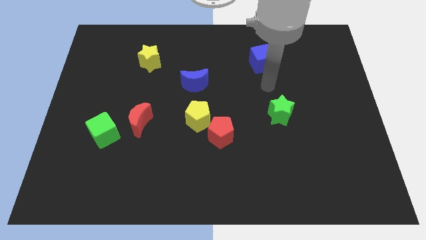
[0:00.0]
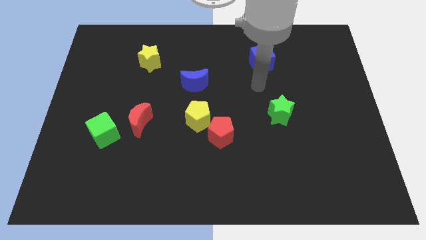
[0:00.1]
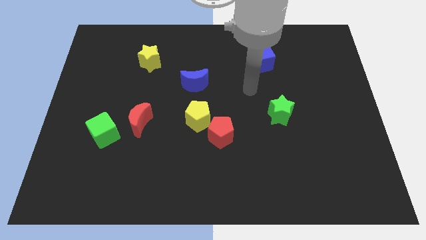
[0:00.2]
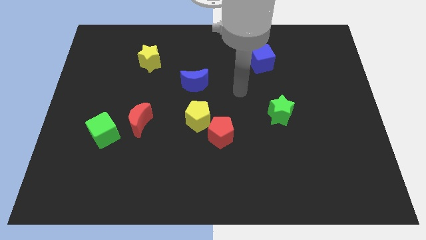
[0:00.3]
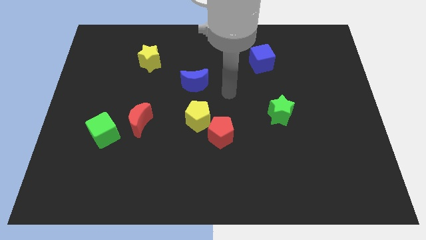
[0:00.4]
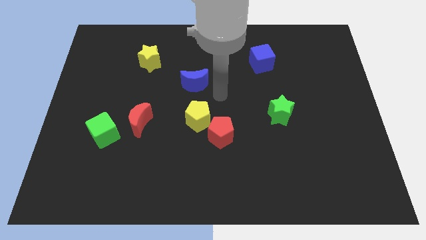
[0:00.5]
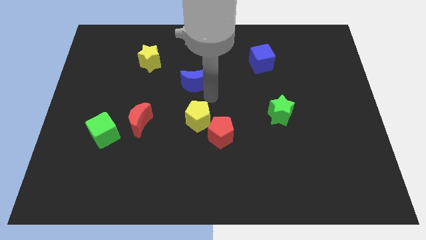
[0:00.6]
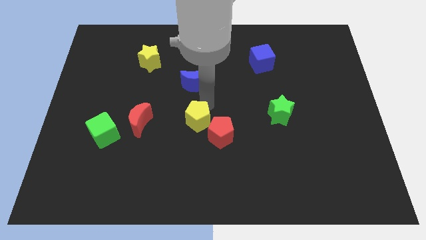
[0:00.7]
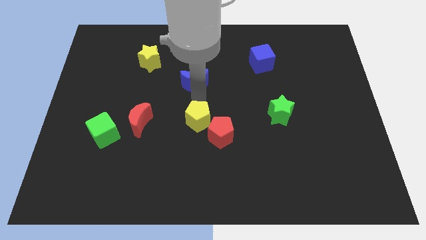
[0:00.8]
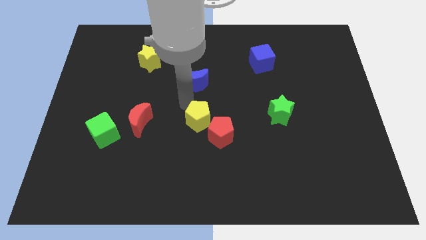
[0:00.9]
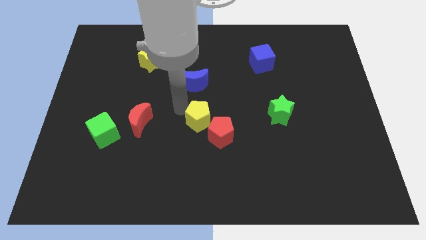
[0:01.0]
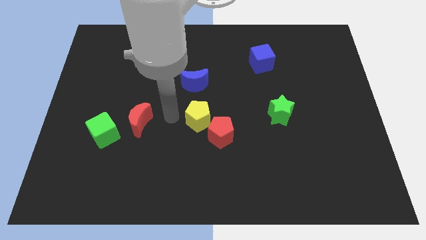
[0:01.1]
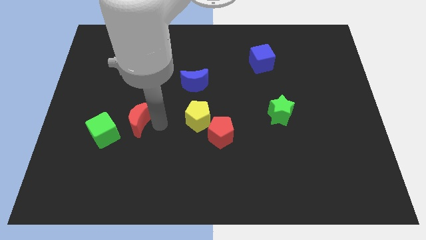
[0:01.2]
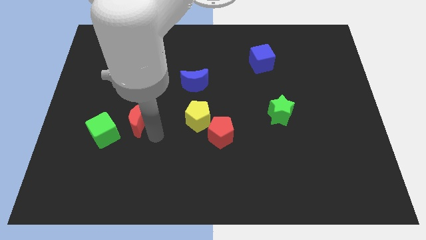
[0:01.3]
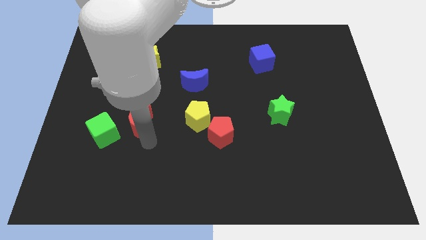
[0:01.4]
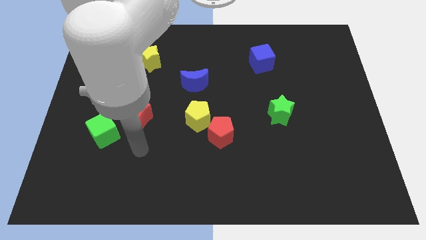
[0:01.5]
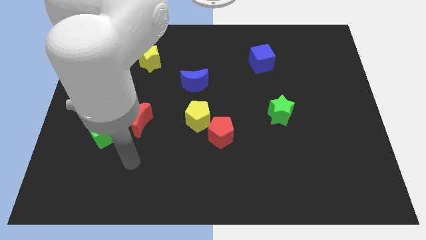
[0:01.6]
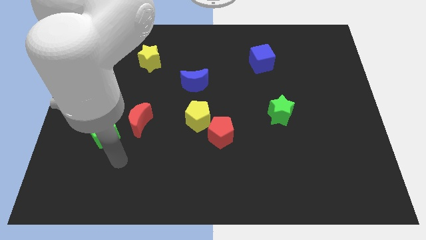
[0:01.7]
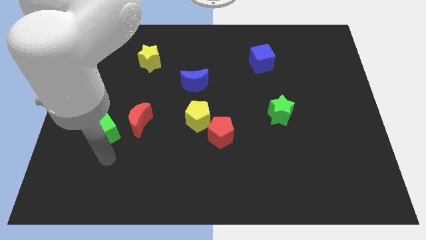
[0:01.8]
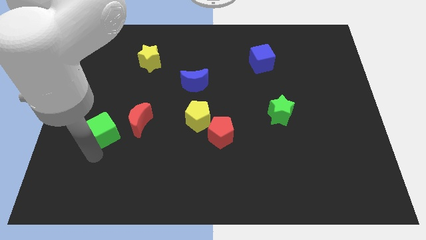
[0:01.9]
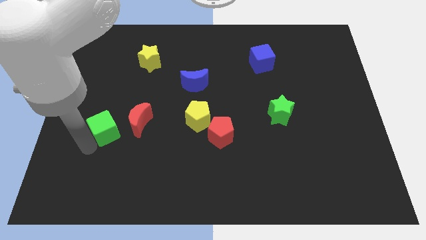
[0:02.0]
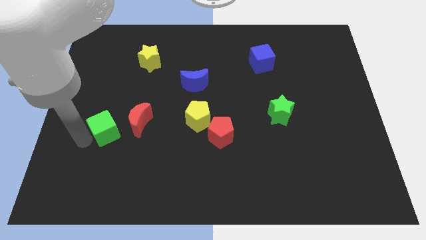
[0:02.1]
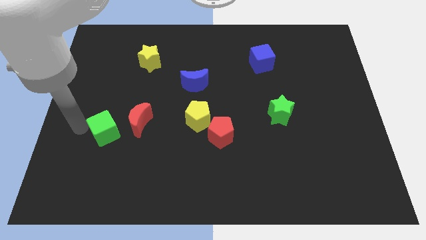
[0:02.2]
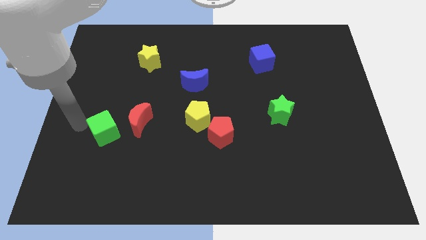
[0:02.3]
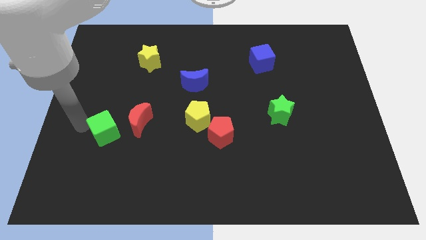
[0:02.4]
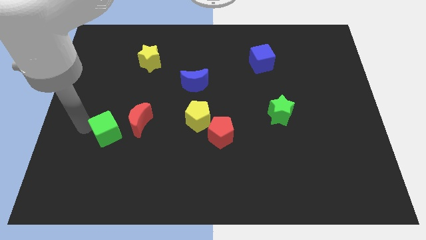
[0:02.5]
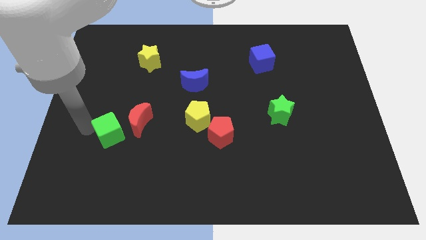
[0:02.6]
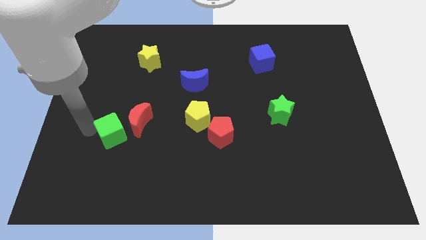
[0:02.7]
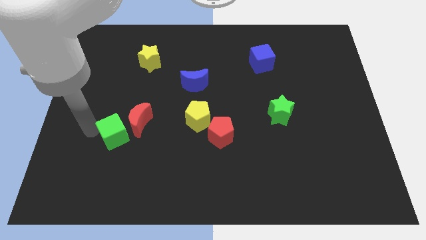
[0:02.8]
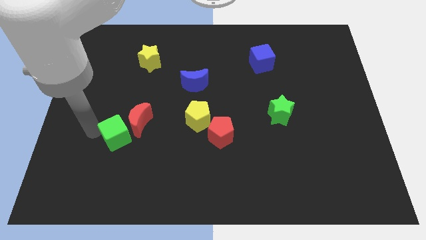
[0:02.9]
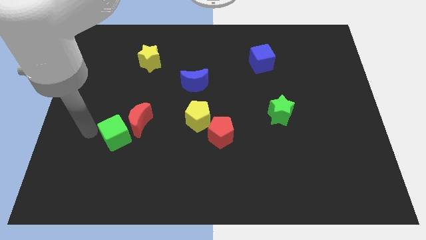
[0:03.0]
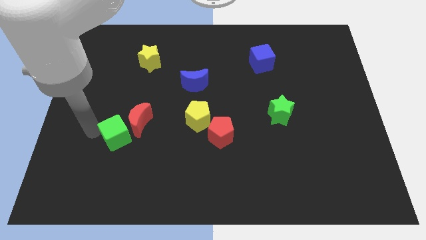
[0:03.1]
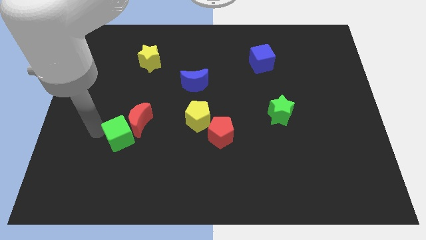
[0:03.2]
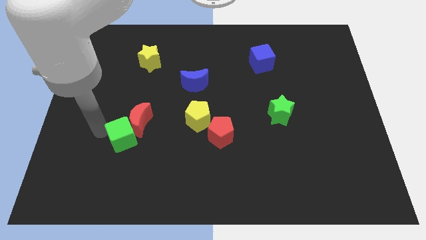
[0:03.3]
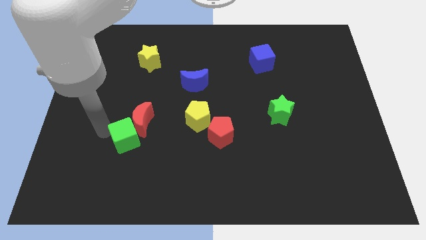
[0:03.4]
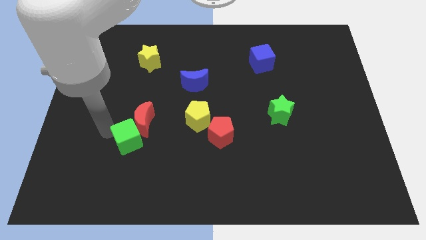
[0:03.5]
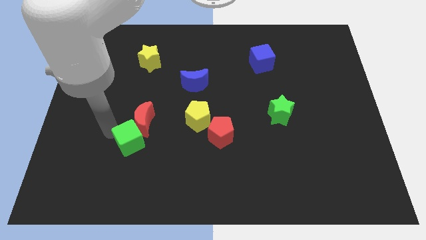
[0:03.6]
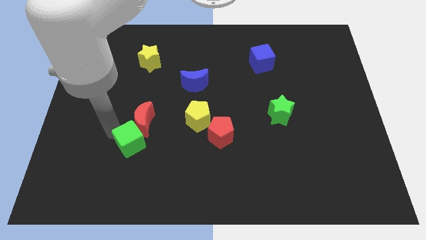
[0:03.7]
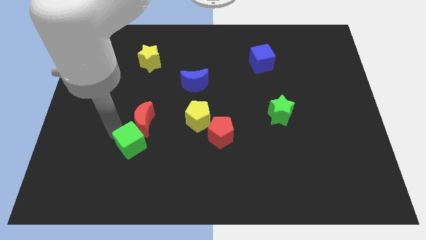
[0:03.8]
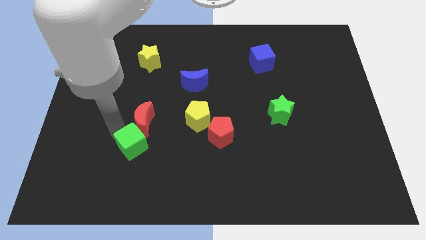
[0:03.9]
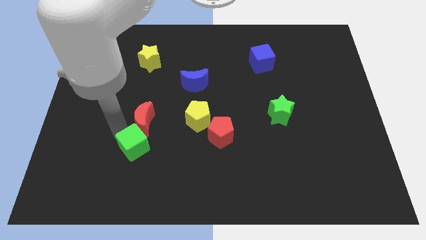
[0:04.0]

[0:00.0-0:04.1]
push the green cube slightly to the right

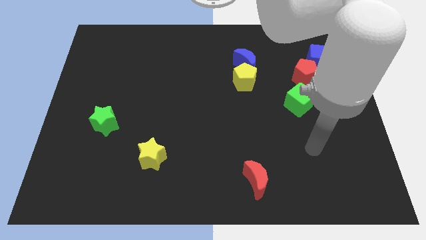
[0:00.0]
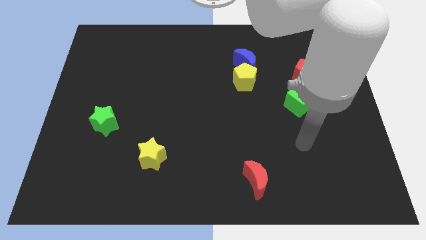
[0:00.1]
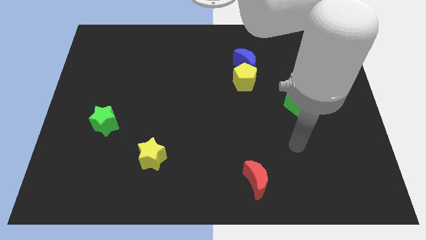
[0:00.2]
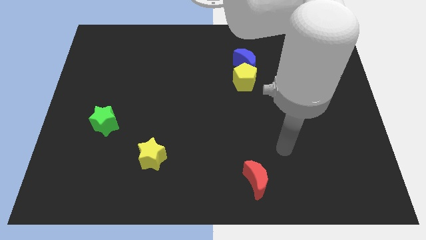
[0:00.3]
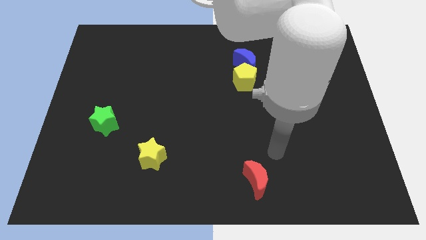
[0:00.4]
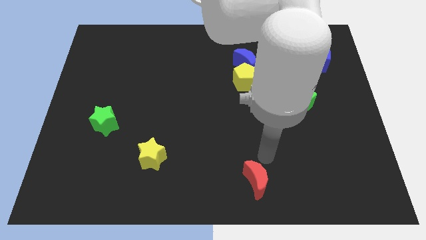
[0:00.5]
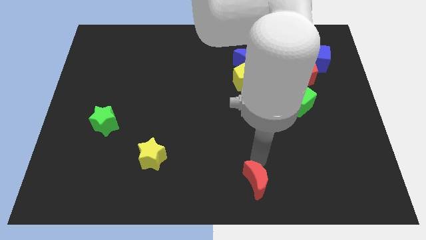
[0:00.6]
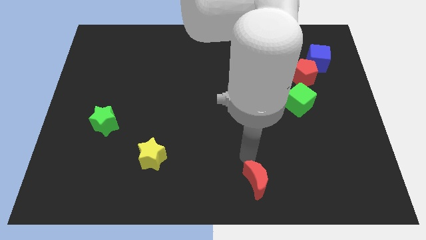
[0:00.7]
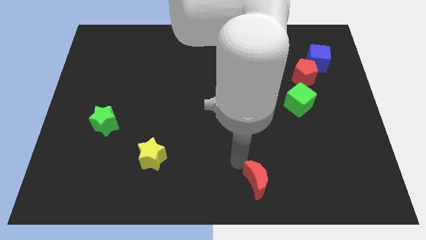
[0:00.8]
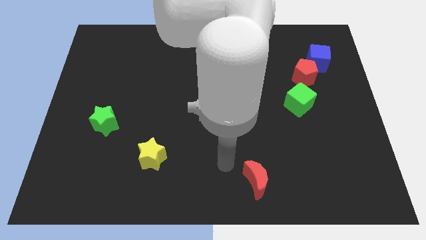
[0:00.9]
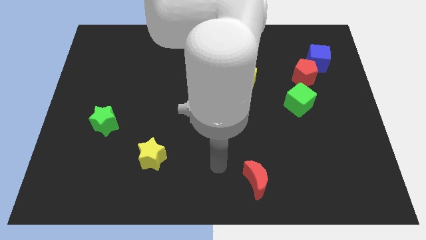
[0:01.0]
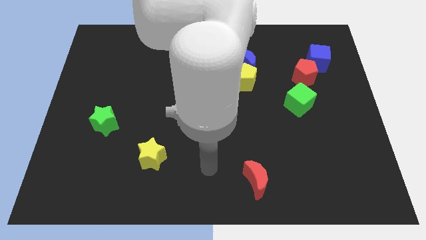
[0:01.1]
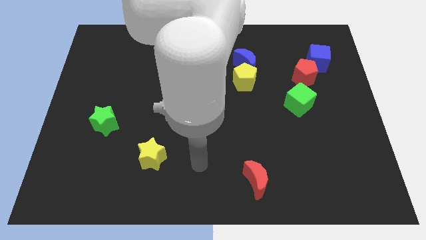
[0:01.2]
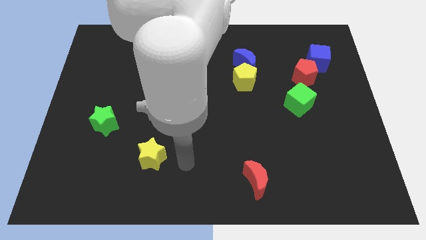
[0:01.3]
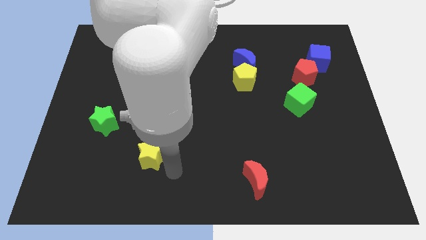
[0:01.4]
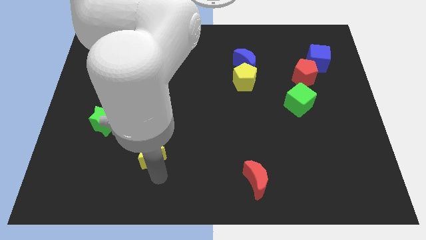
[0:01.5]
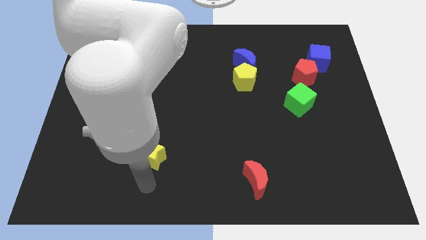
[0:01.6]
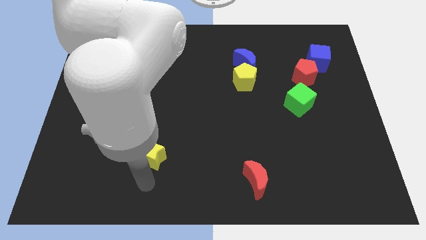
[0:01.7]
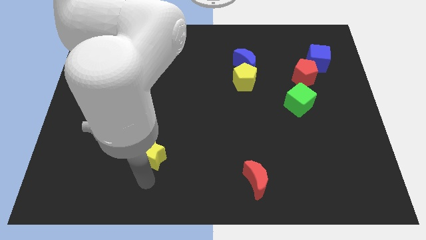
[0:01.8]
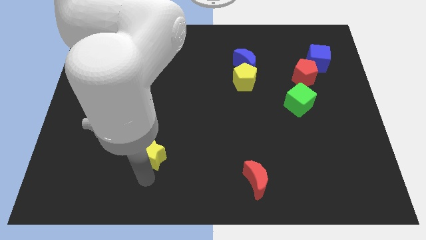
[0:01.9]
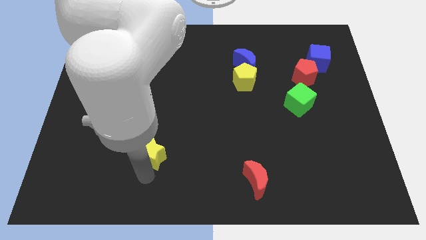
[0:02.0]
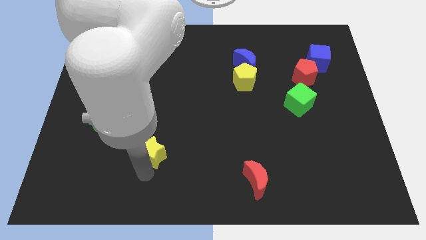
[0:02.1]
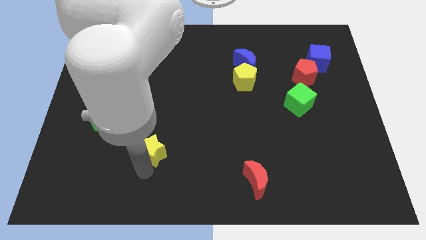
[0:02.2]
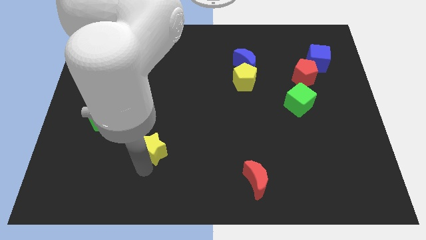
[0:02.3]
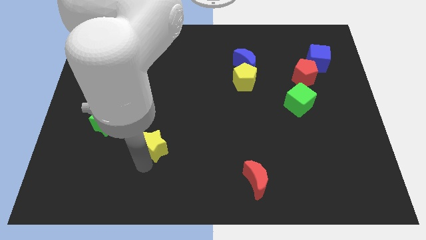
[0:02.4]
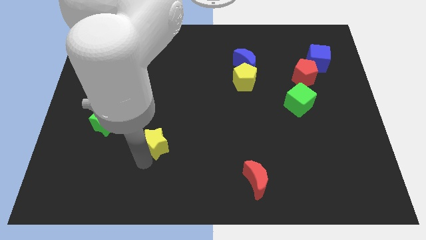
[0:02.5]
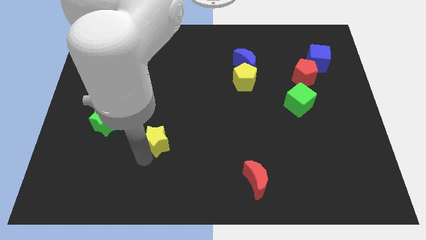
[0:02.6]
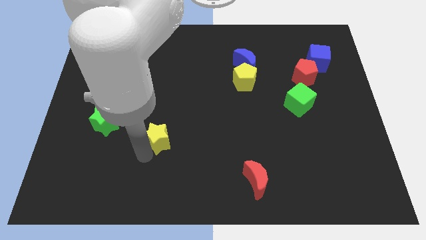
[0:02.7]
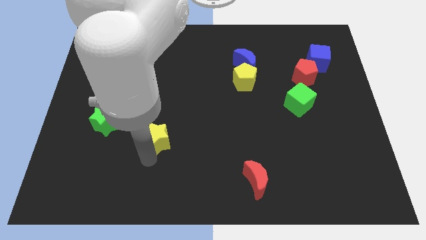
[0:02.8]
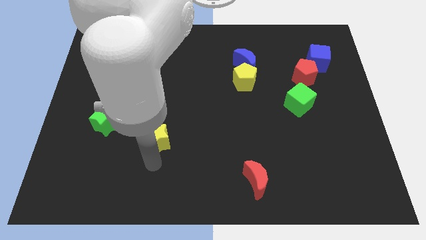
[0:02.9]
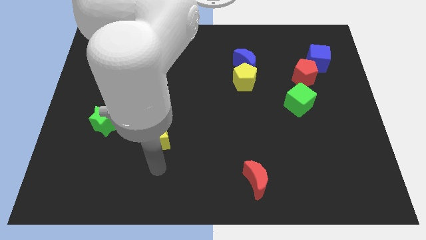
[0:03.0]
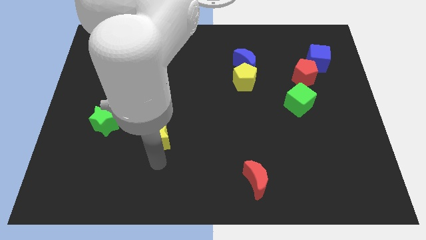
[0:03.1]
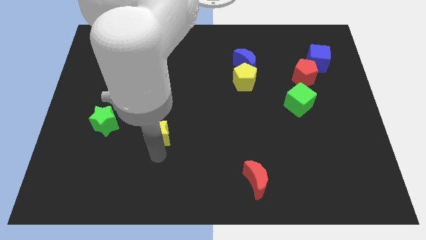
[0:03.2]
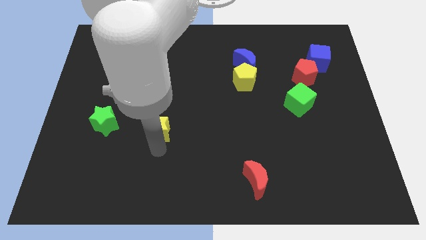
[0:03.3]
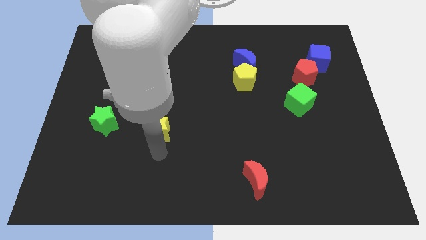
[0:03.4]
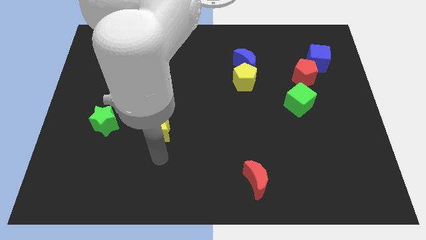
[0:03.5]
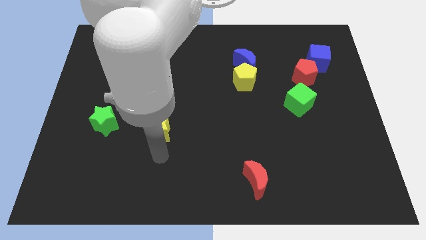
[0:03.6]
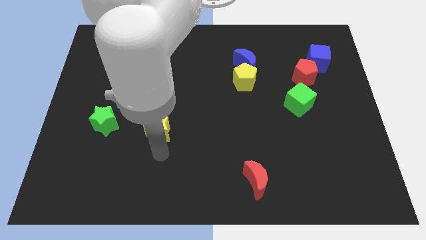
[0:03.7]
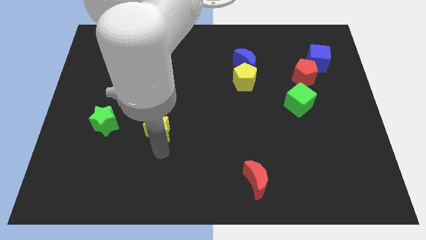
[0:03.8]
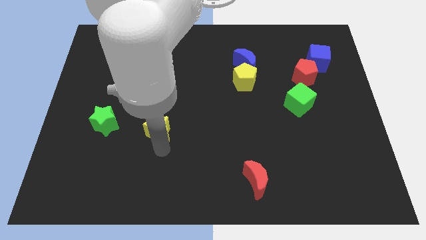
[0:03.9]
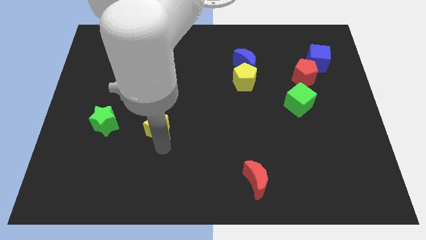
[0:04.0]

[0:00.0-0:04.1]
slightly slide the yellow star upwards

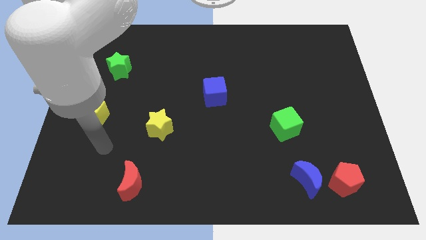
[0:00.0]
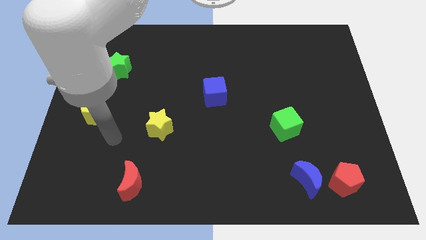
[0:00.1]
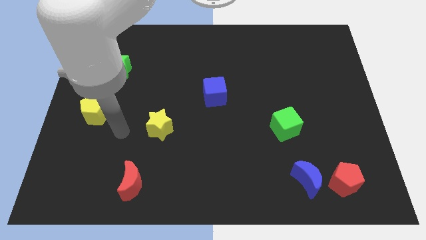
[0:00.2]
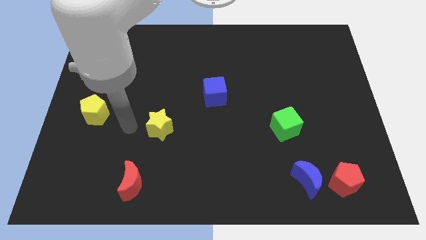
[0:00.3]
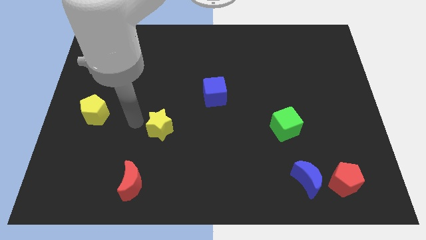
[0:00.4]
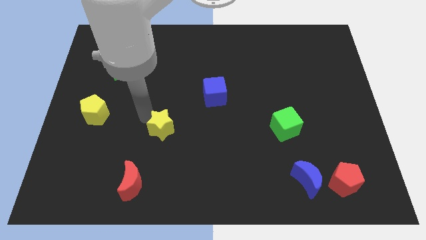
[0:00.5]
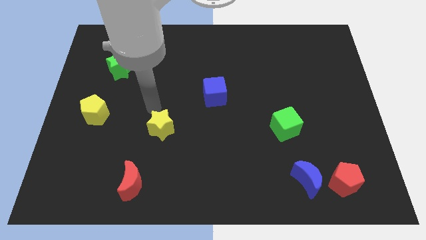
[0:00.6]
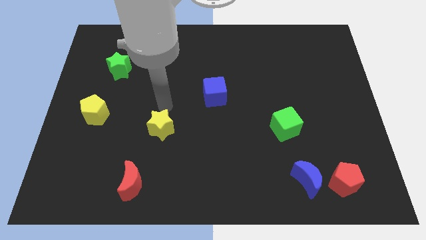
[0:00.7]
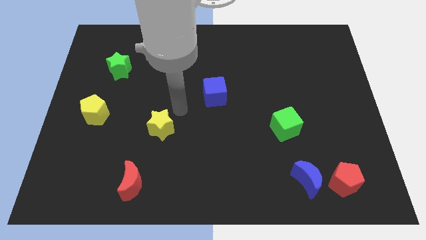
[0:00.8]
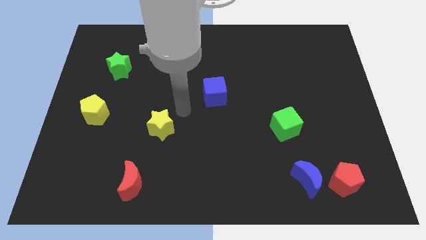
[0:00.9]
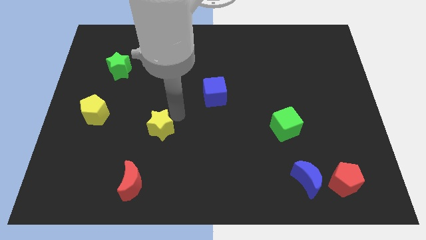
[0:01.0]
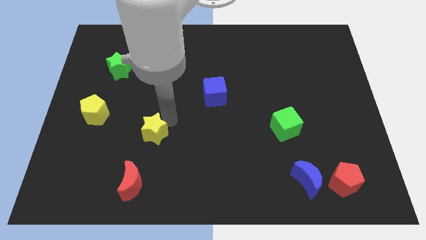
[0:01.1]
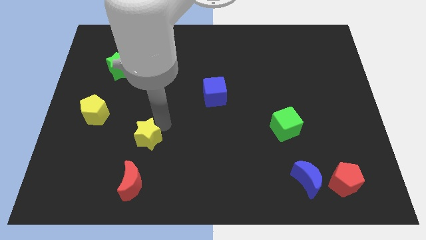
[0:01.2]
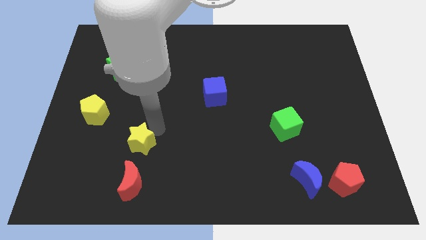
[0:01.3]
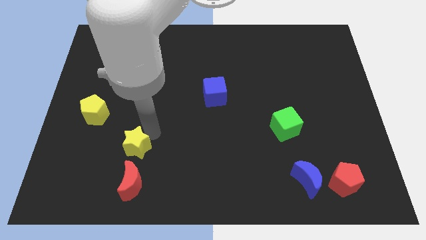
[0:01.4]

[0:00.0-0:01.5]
move the yellow star a little downwards and to the left diagonally
